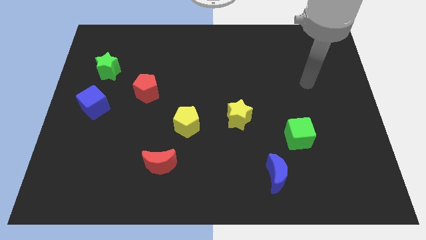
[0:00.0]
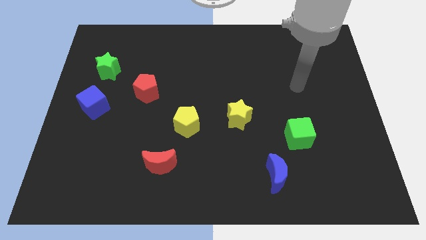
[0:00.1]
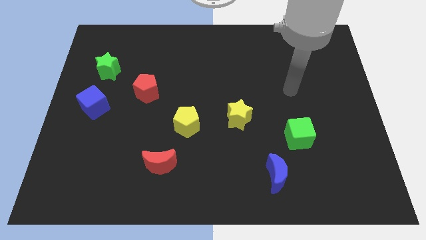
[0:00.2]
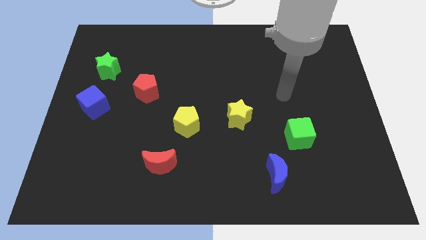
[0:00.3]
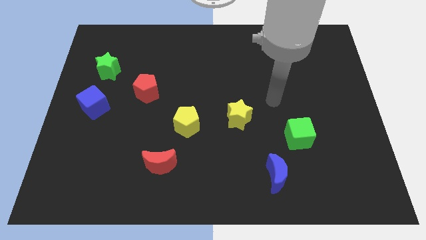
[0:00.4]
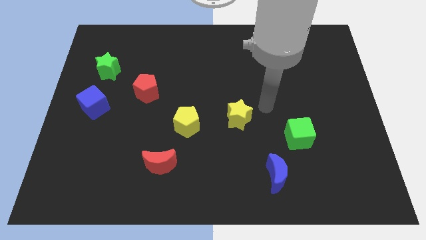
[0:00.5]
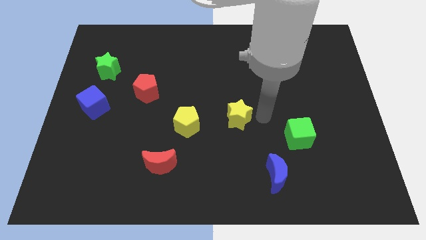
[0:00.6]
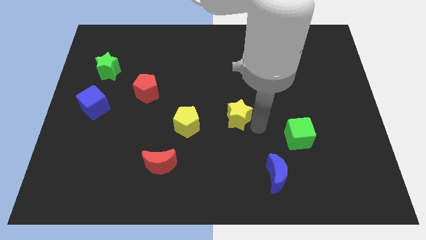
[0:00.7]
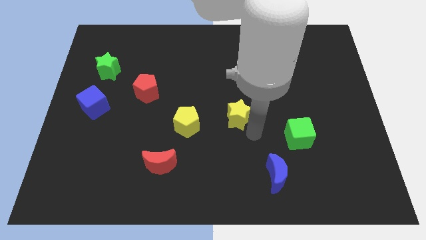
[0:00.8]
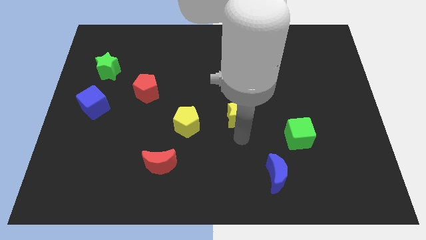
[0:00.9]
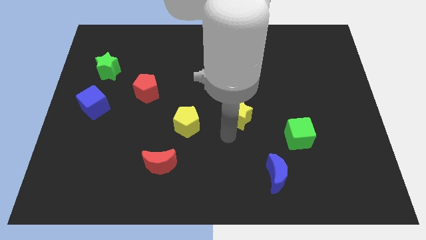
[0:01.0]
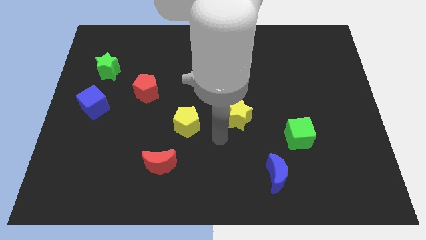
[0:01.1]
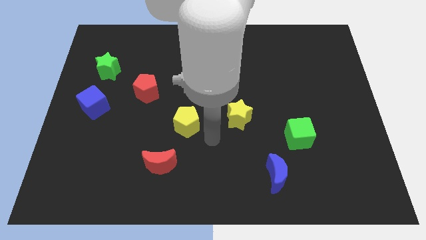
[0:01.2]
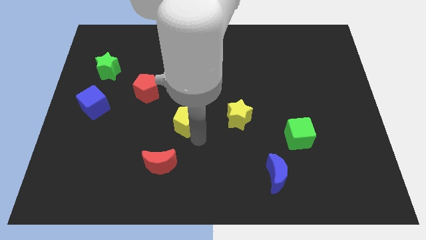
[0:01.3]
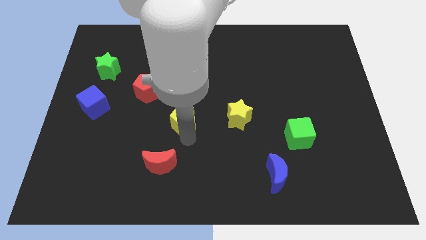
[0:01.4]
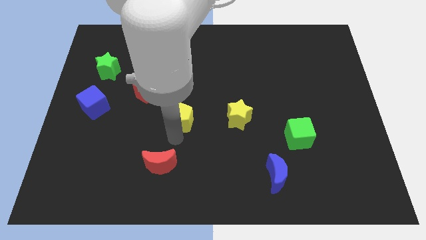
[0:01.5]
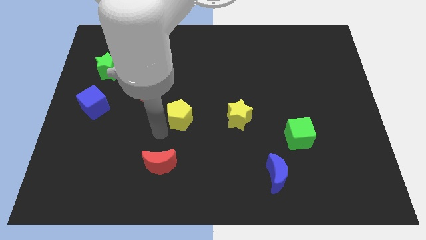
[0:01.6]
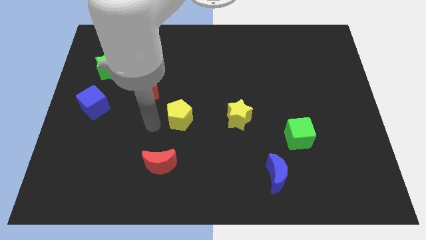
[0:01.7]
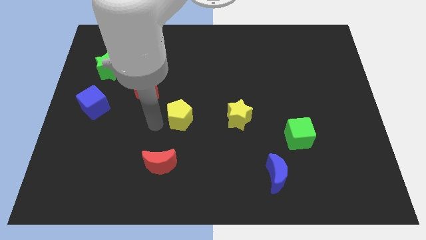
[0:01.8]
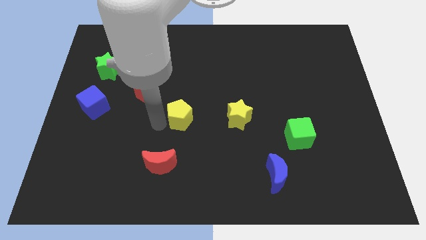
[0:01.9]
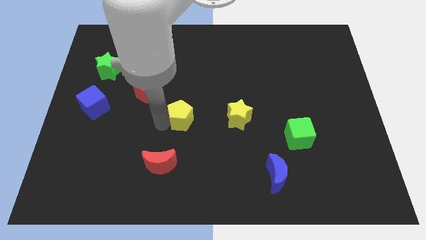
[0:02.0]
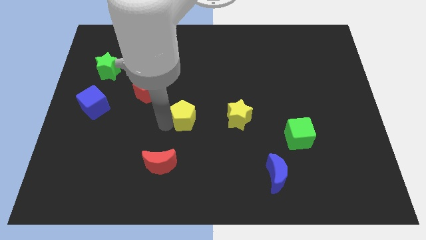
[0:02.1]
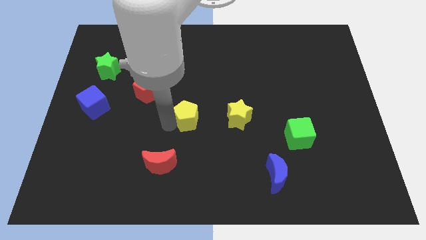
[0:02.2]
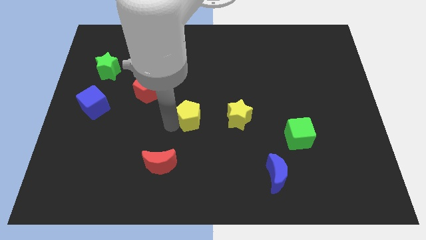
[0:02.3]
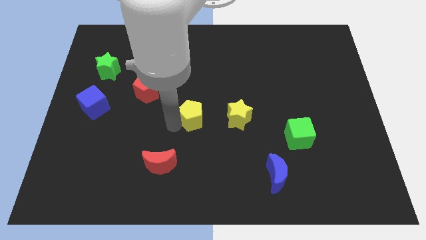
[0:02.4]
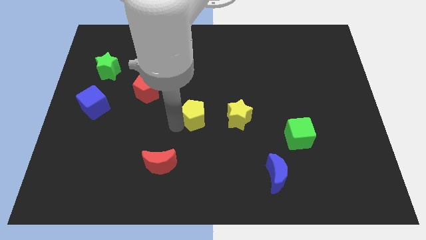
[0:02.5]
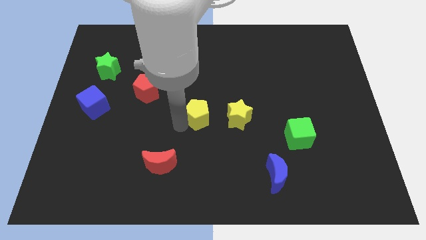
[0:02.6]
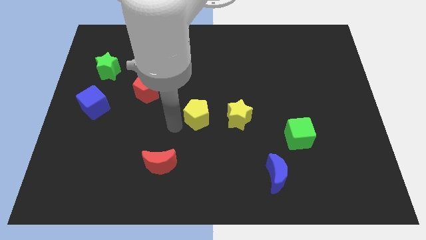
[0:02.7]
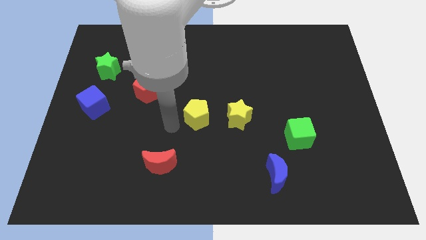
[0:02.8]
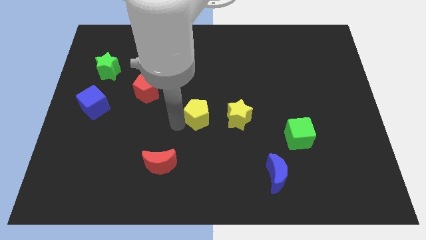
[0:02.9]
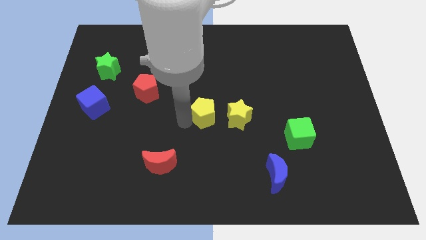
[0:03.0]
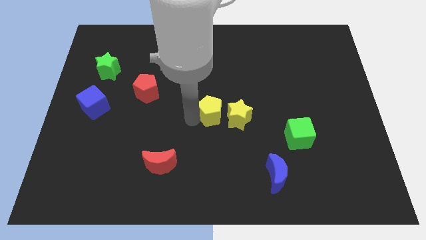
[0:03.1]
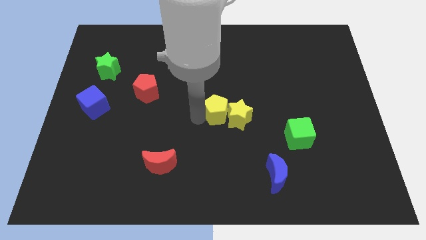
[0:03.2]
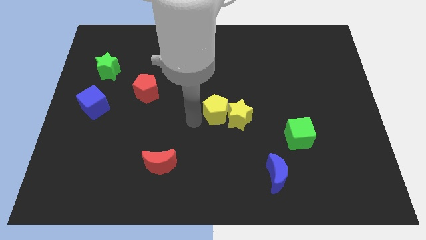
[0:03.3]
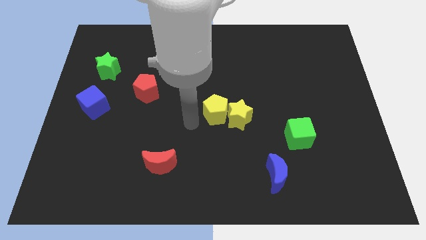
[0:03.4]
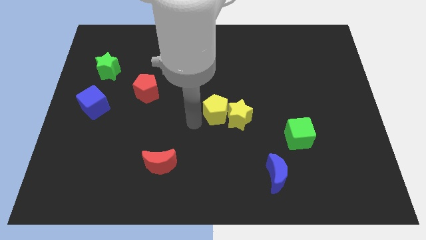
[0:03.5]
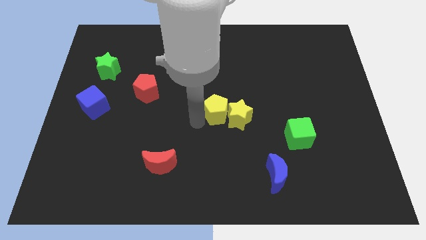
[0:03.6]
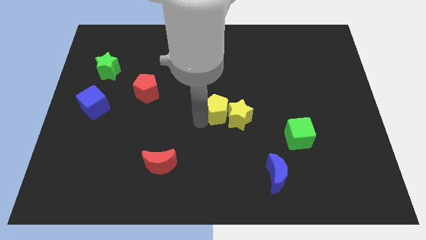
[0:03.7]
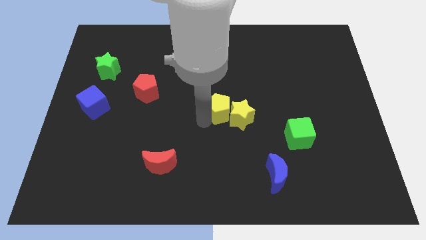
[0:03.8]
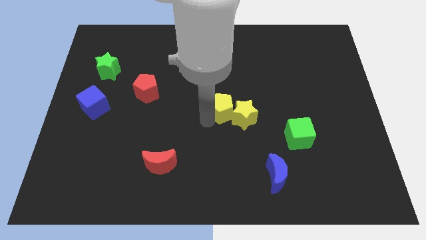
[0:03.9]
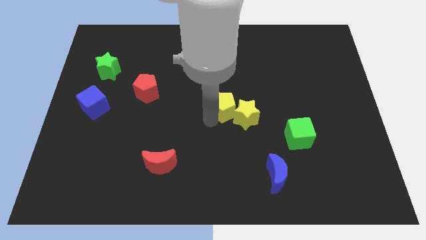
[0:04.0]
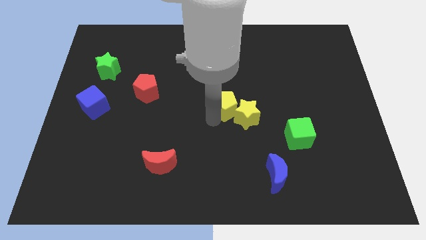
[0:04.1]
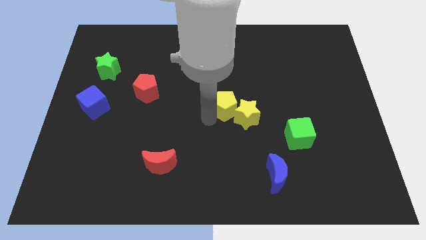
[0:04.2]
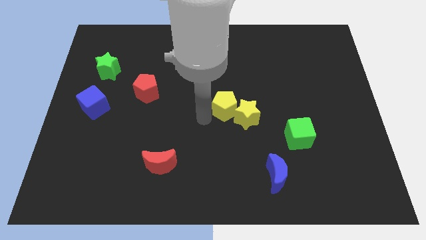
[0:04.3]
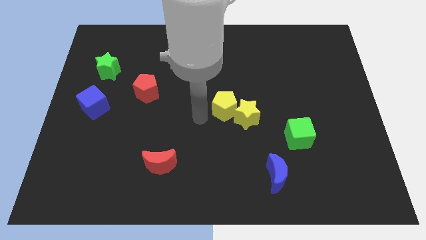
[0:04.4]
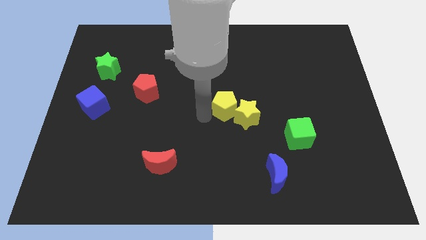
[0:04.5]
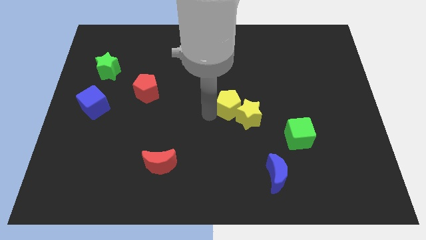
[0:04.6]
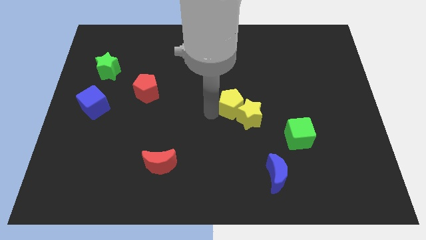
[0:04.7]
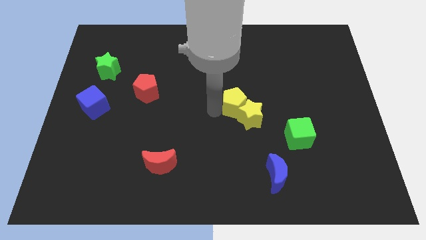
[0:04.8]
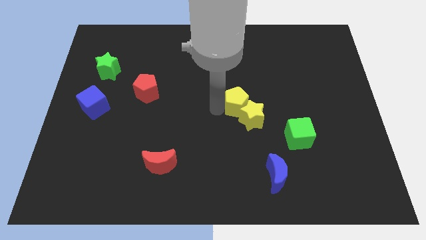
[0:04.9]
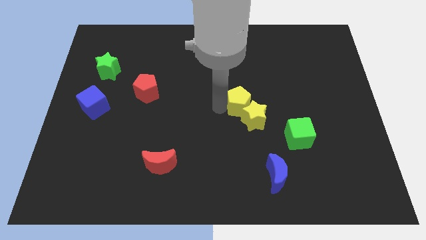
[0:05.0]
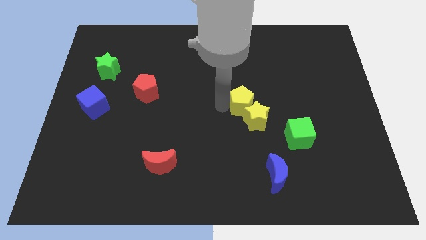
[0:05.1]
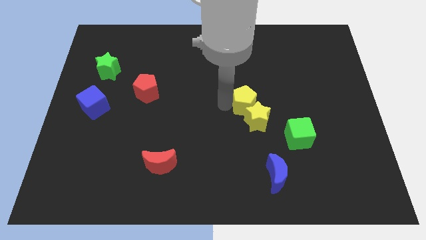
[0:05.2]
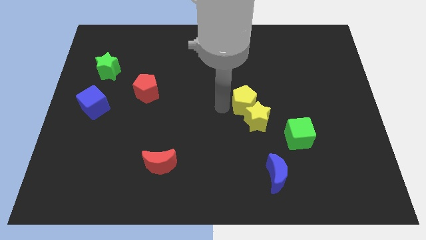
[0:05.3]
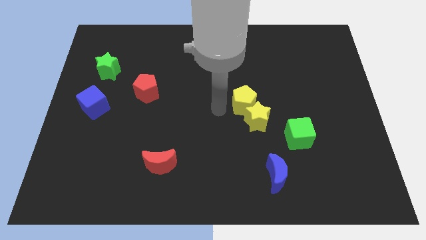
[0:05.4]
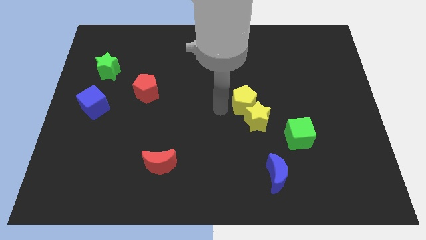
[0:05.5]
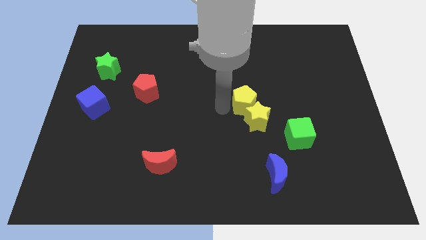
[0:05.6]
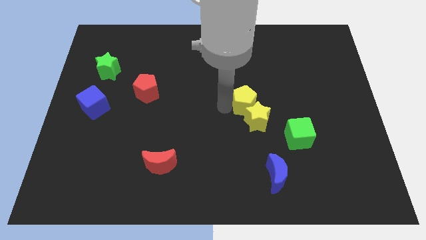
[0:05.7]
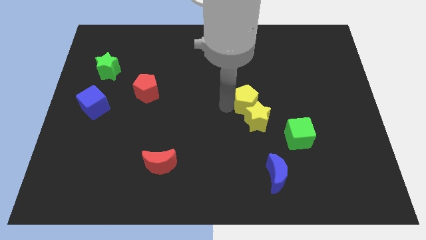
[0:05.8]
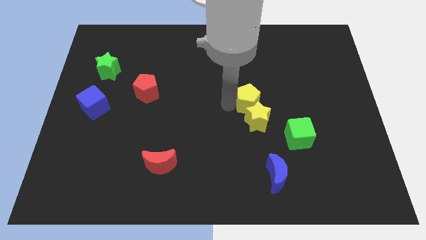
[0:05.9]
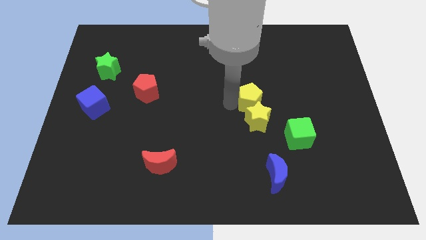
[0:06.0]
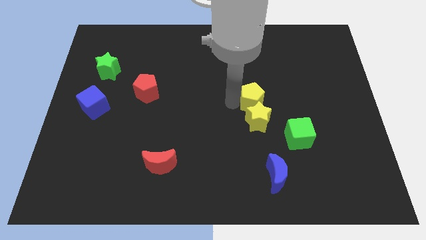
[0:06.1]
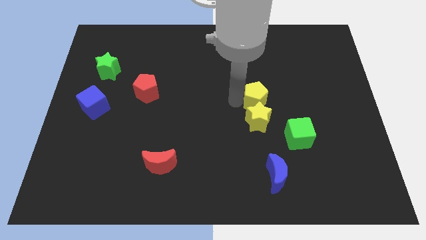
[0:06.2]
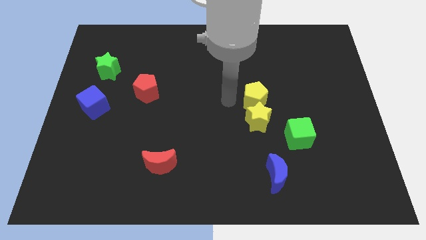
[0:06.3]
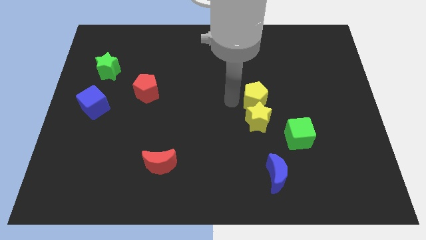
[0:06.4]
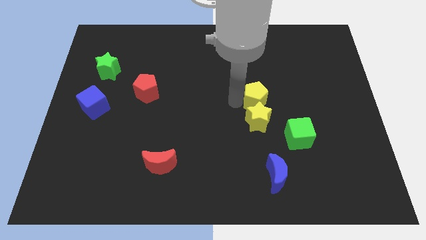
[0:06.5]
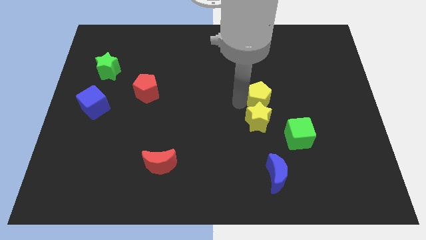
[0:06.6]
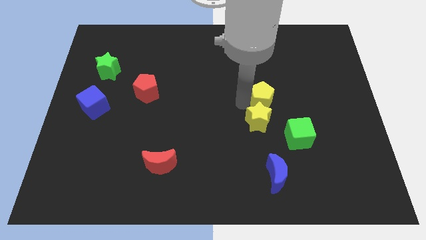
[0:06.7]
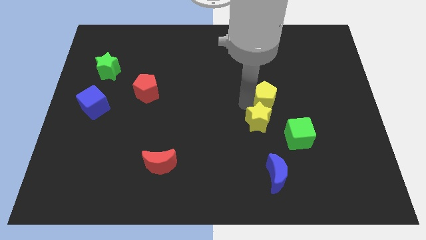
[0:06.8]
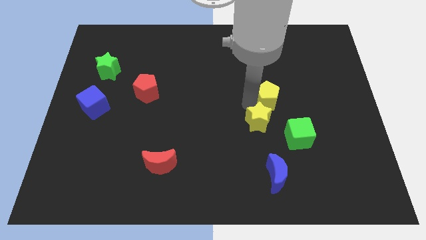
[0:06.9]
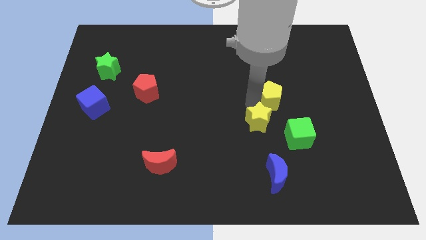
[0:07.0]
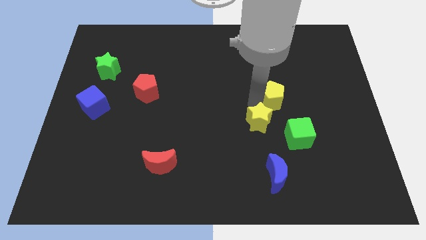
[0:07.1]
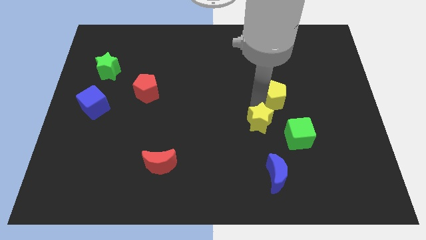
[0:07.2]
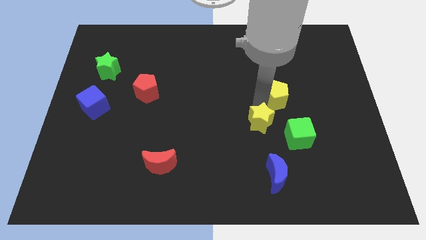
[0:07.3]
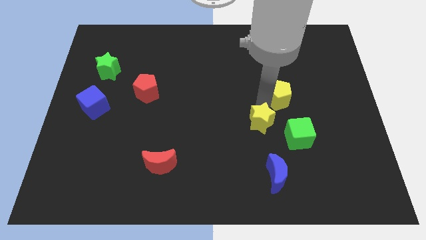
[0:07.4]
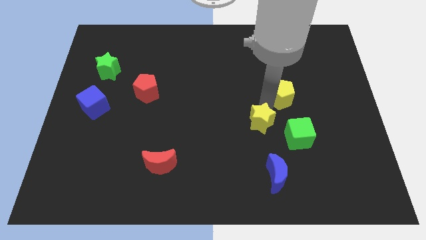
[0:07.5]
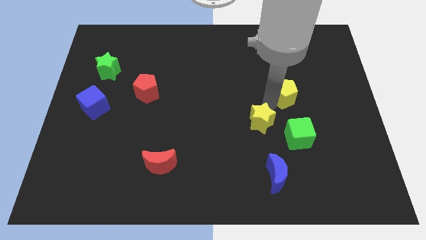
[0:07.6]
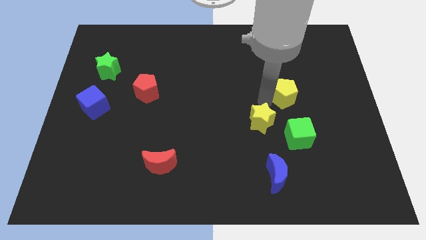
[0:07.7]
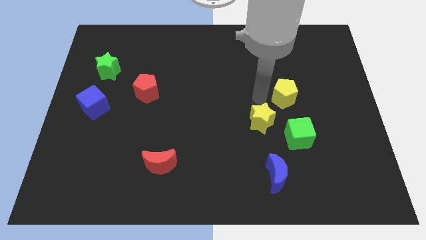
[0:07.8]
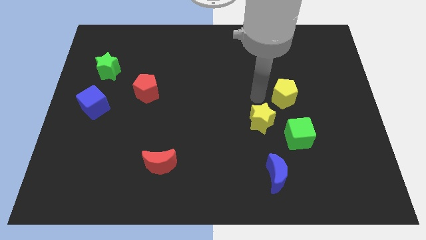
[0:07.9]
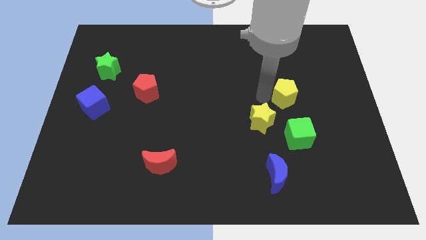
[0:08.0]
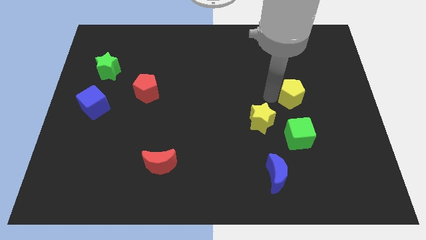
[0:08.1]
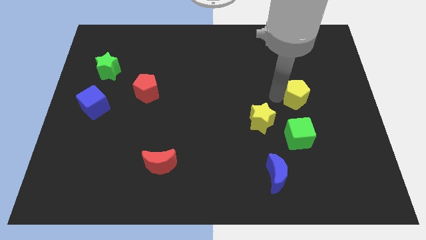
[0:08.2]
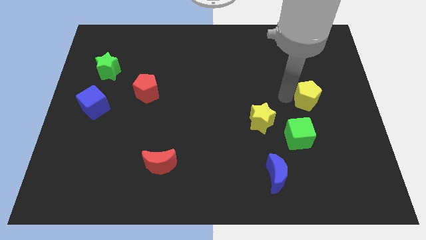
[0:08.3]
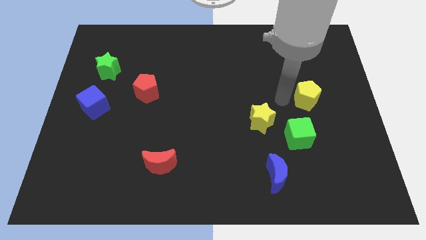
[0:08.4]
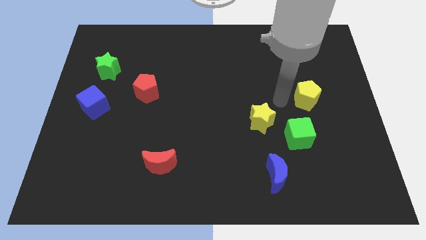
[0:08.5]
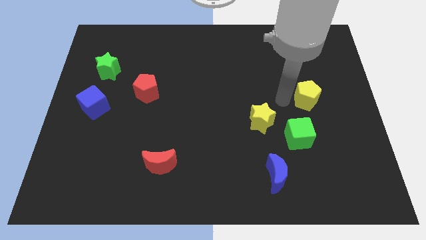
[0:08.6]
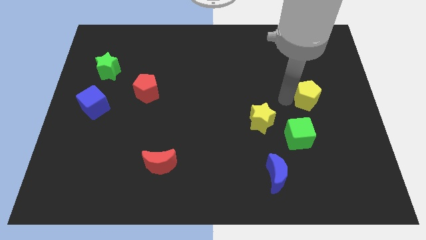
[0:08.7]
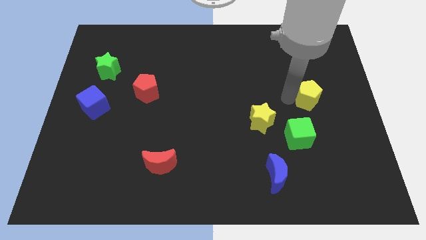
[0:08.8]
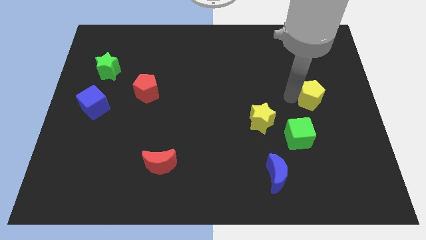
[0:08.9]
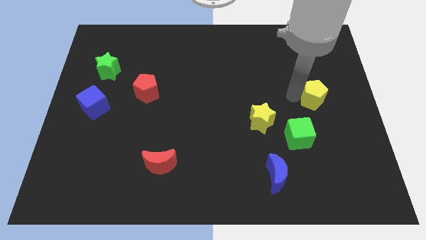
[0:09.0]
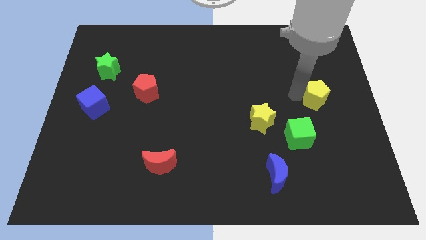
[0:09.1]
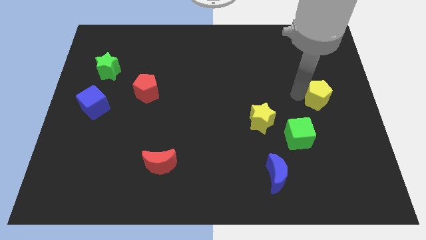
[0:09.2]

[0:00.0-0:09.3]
push the yellow pentagon to the right side
